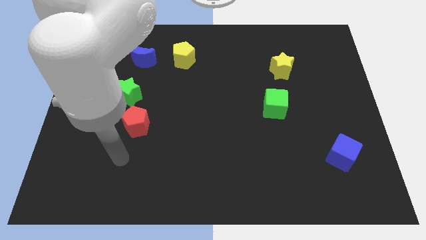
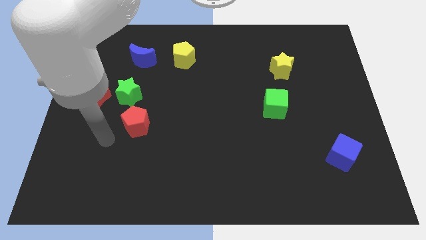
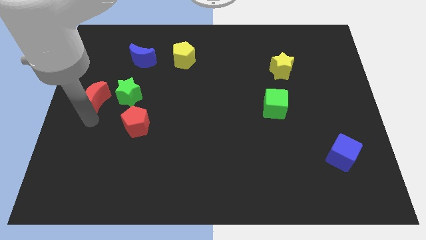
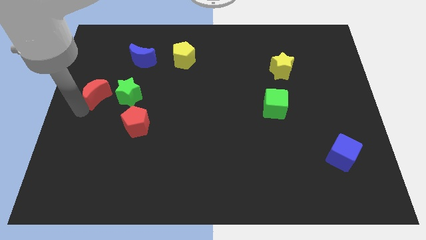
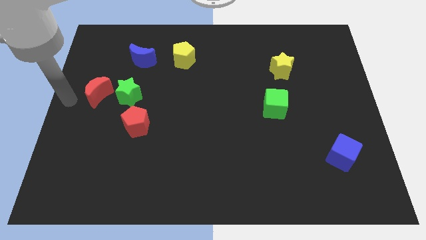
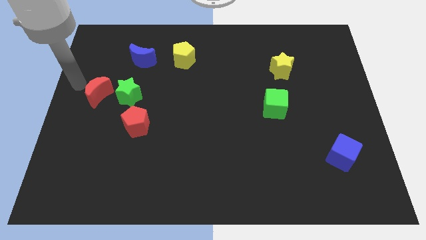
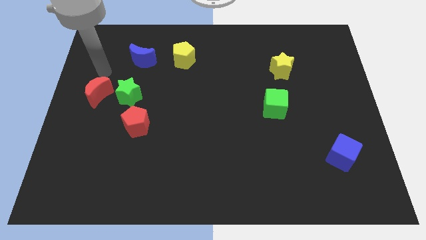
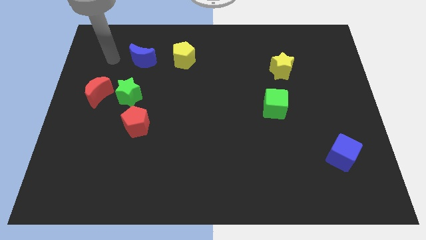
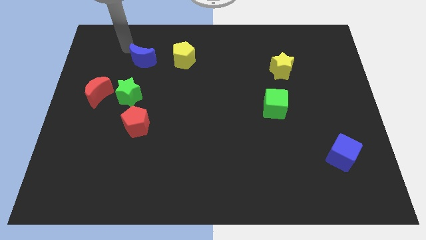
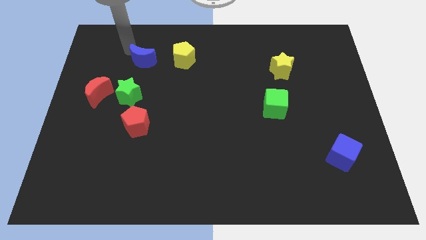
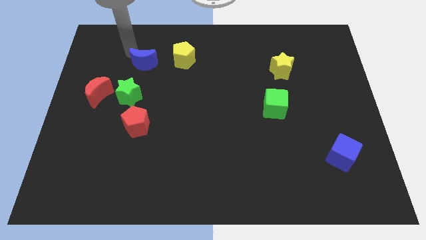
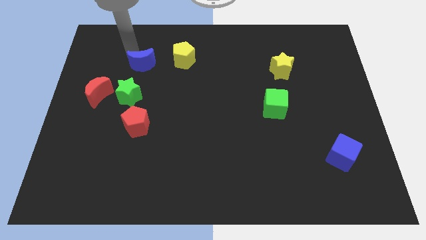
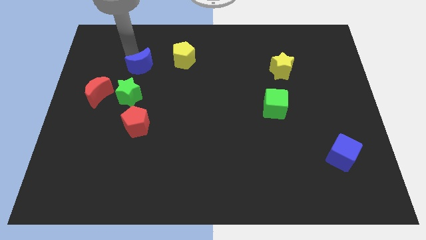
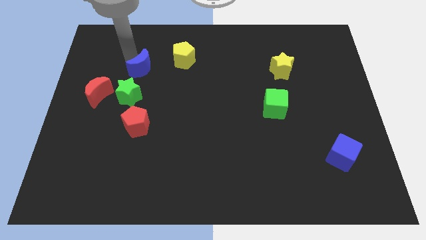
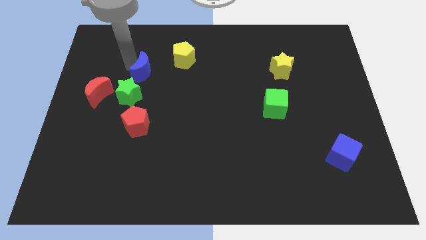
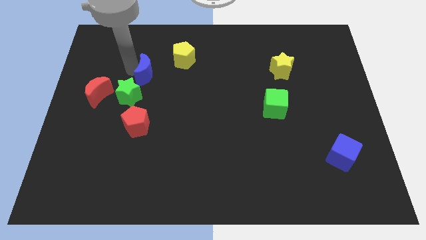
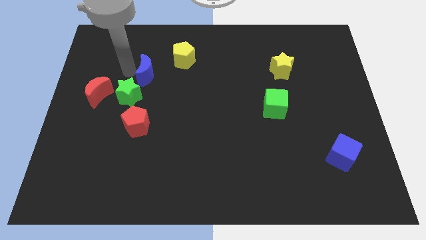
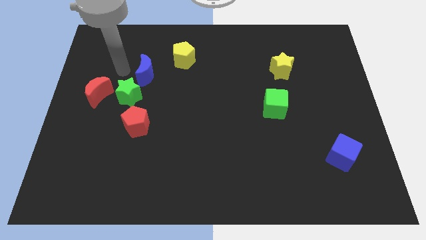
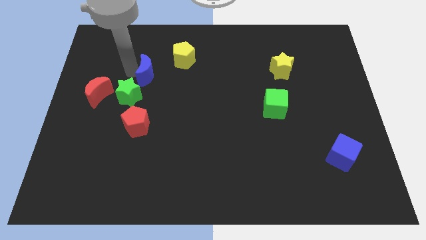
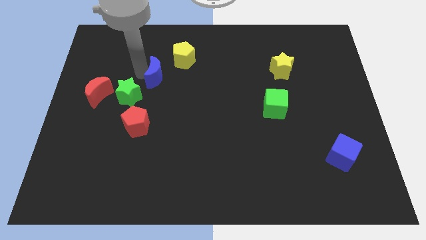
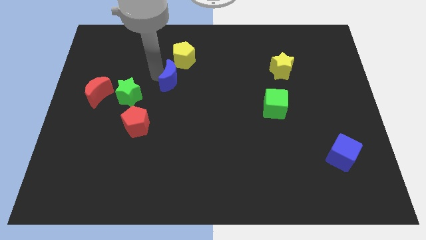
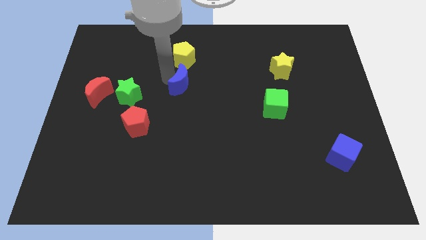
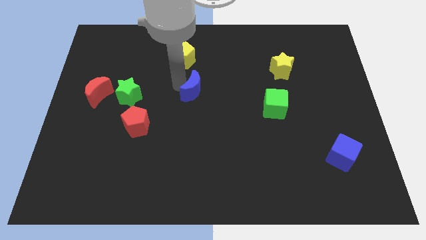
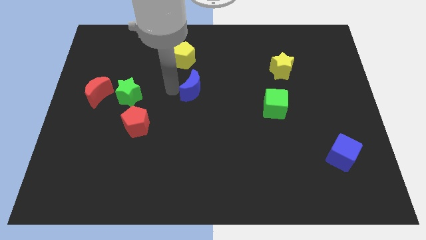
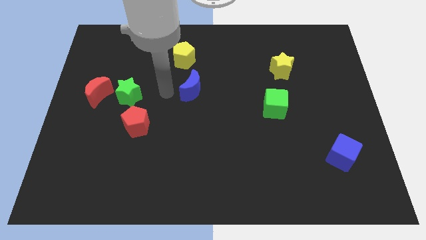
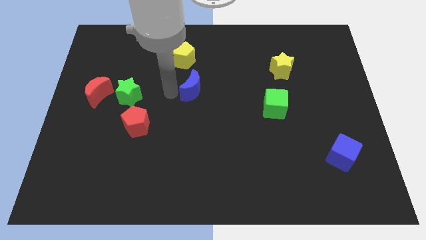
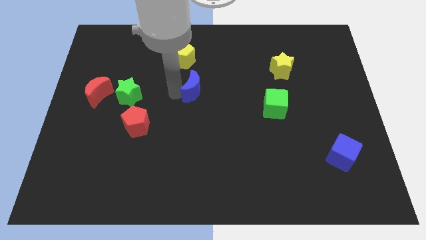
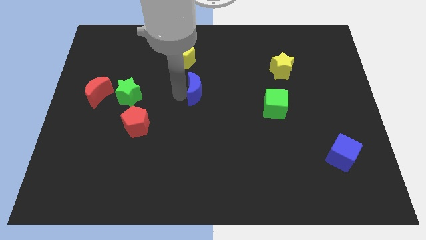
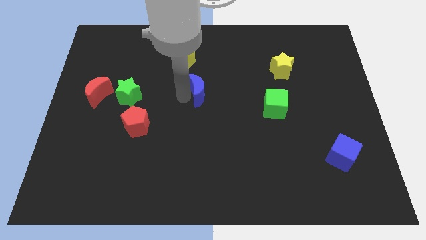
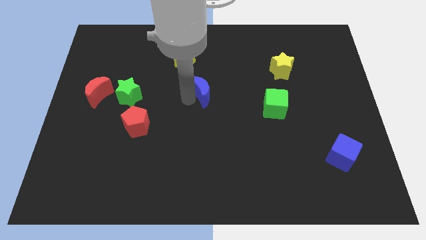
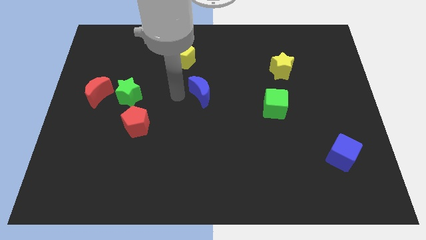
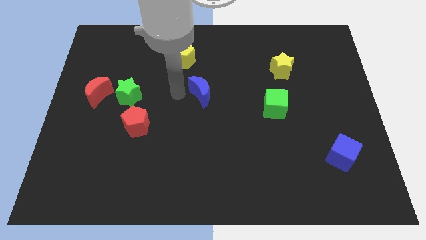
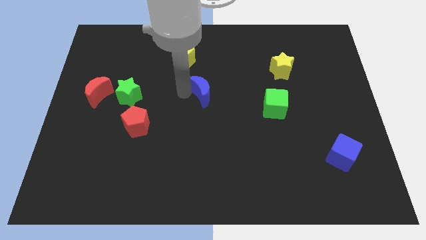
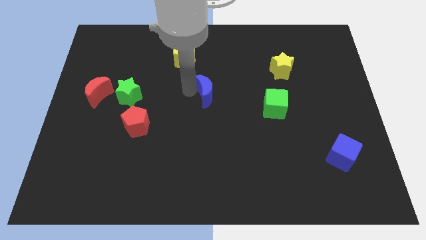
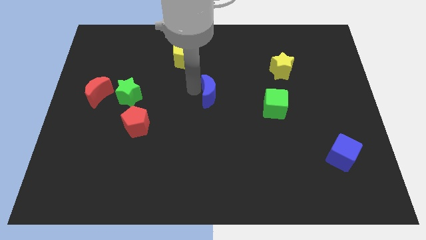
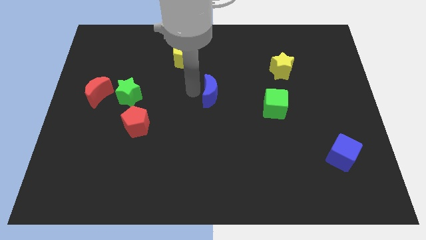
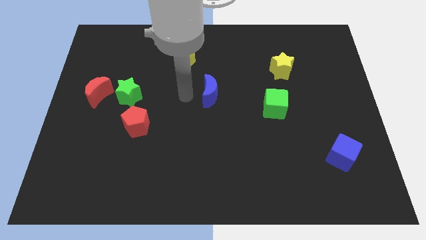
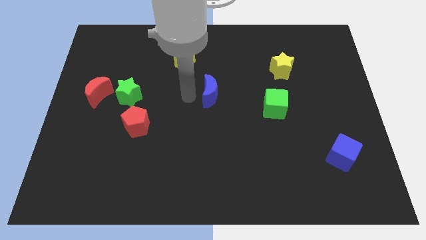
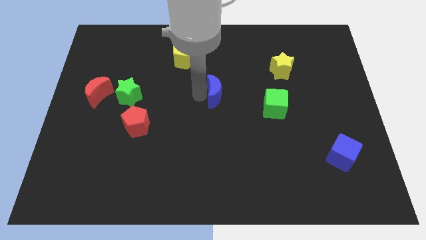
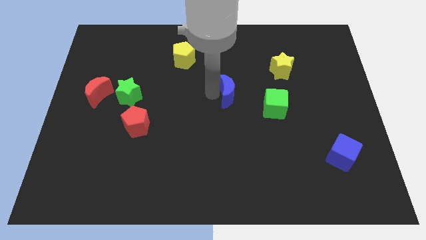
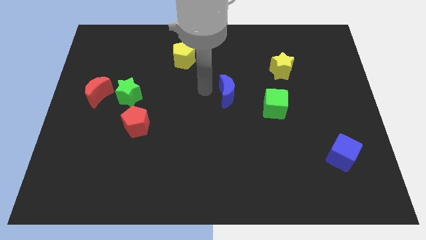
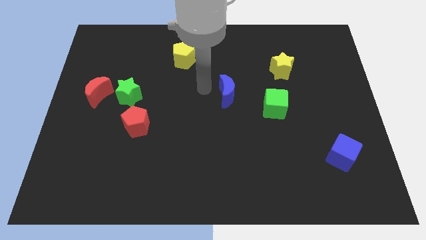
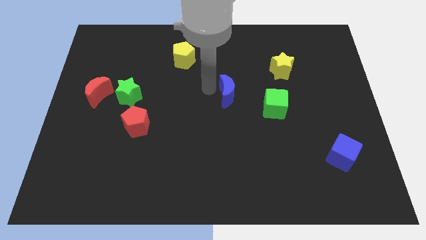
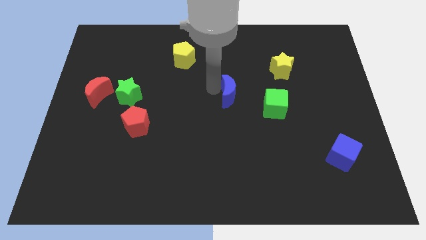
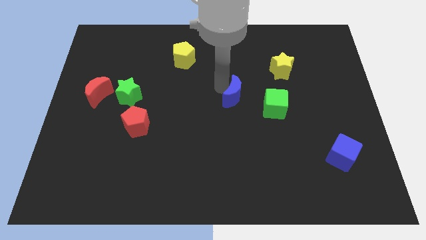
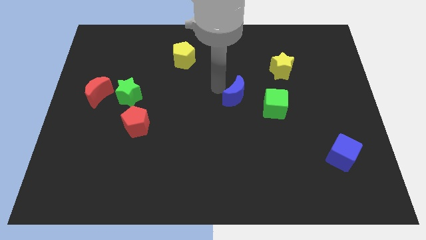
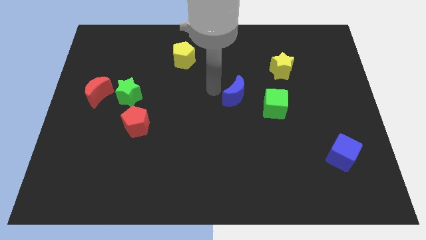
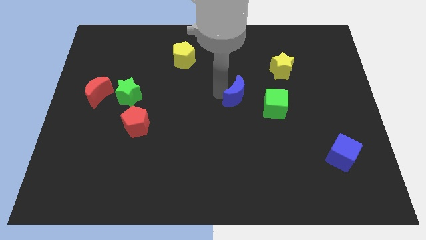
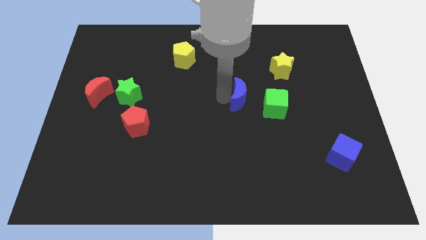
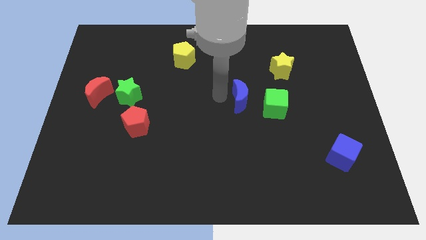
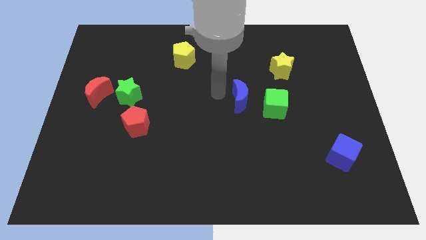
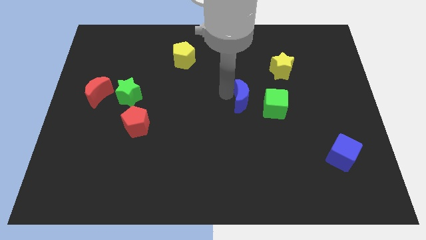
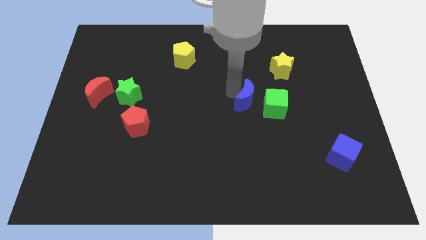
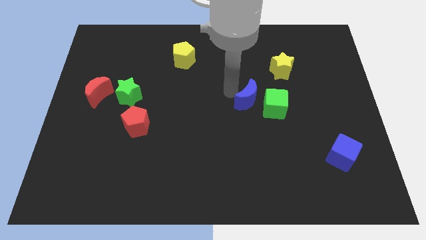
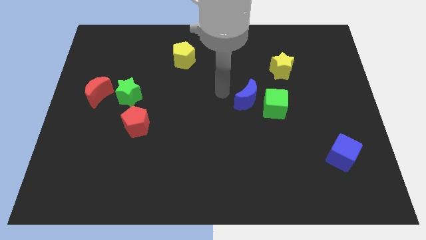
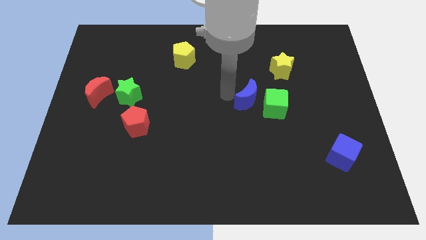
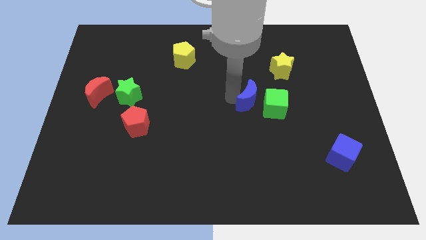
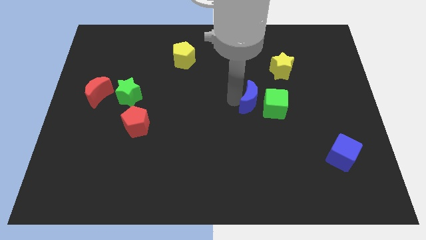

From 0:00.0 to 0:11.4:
slide the blue moon to the green cube

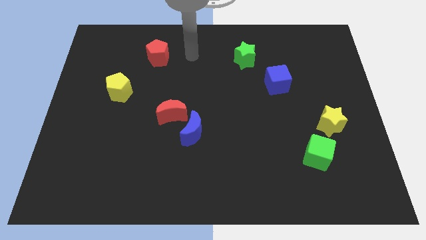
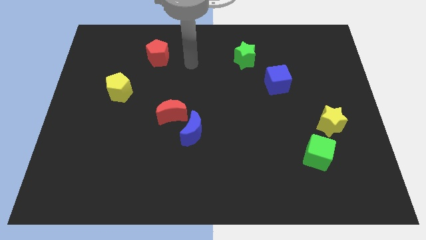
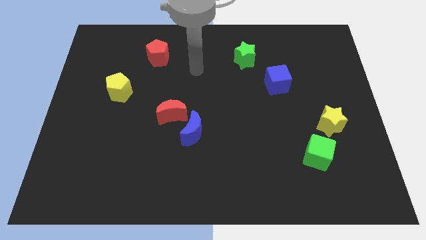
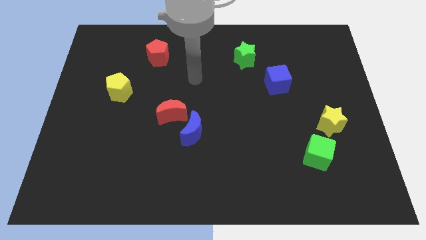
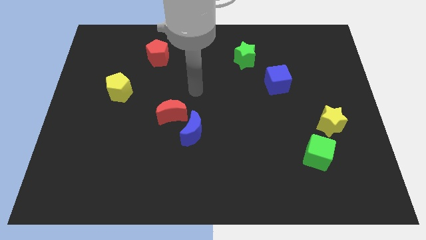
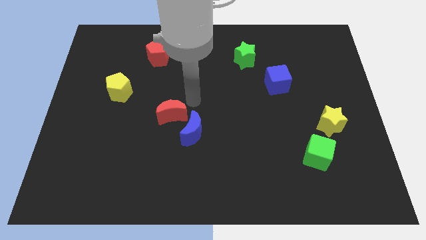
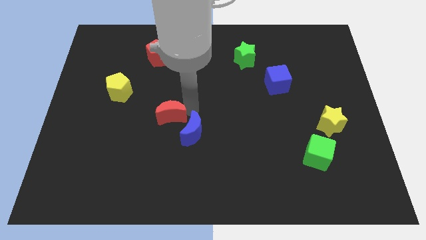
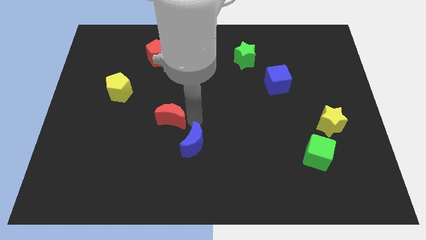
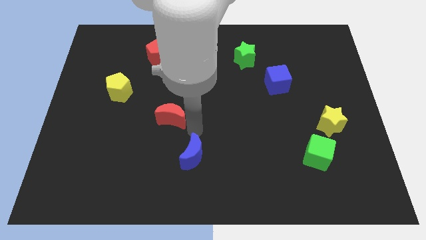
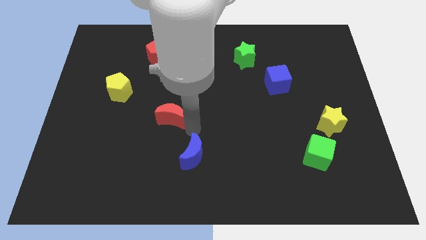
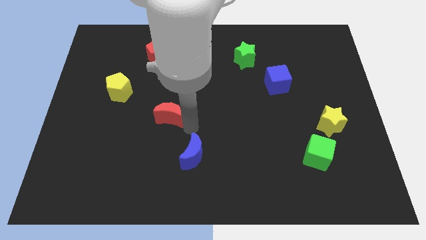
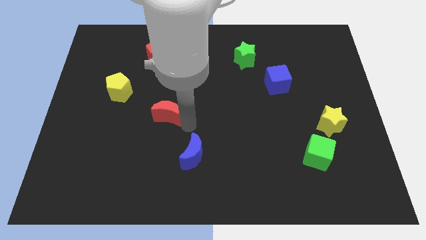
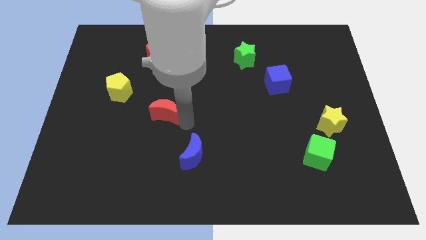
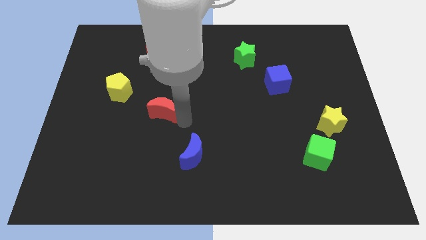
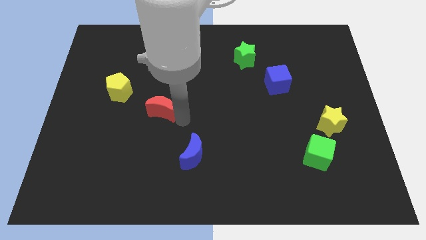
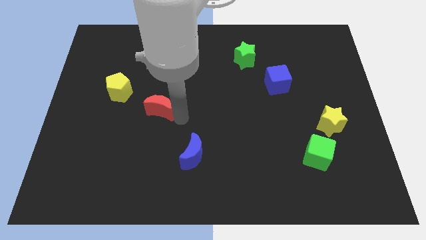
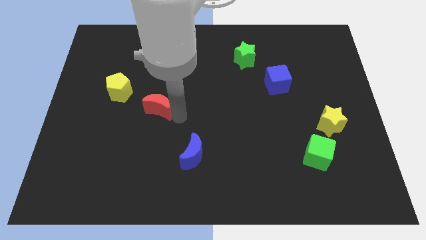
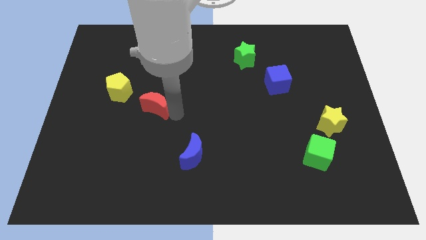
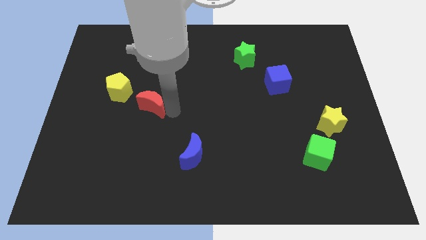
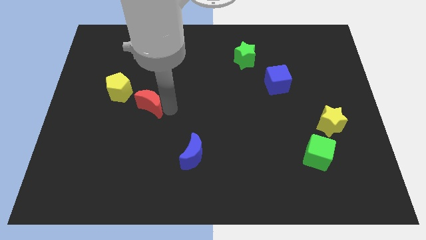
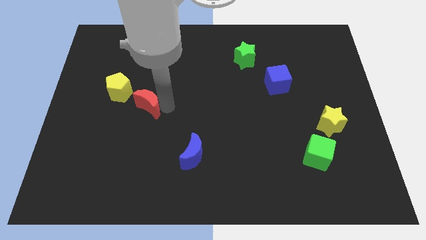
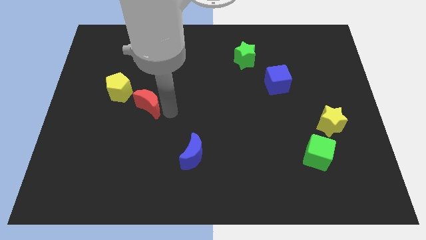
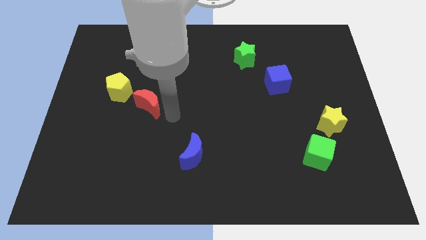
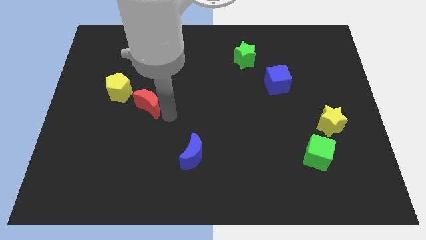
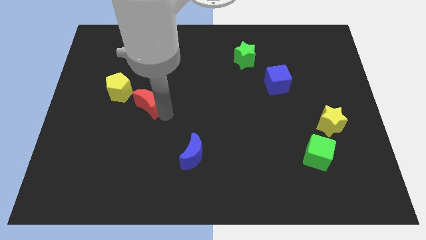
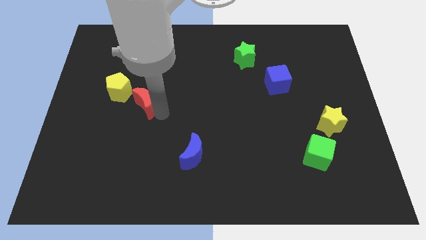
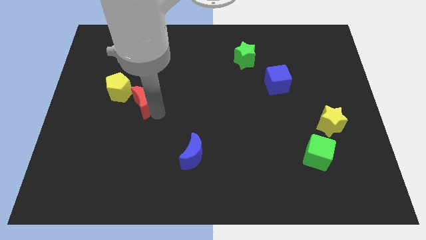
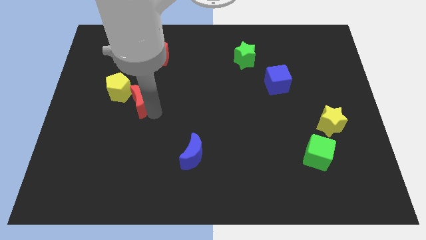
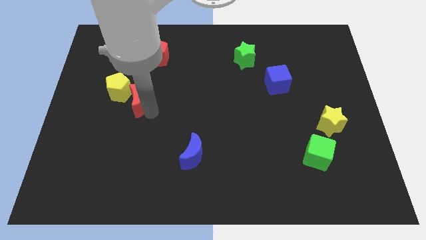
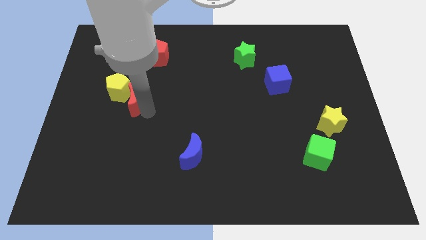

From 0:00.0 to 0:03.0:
move the red moon to the yellow pentagon
